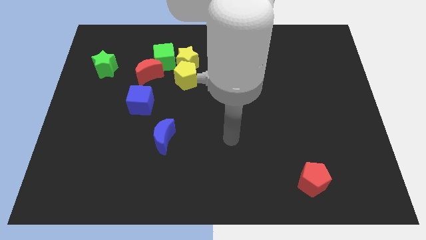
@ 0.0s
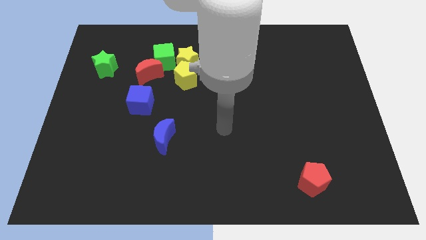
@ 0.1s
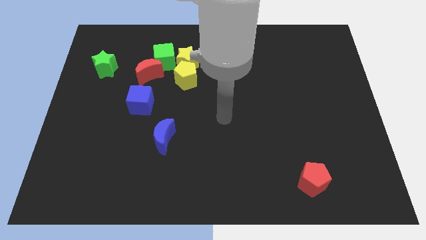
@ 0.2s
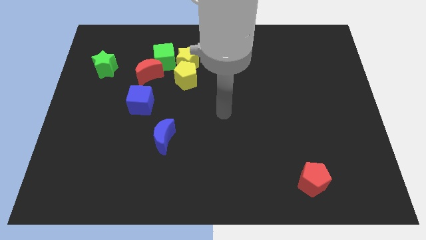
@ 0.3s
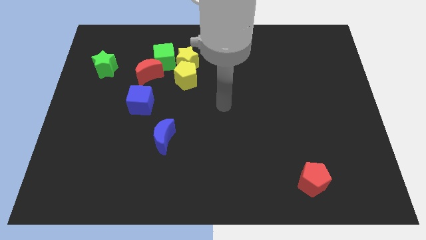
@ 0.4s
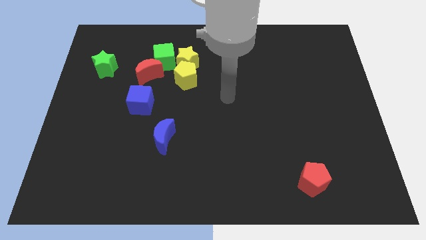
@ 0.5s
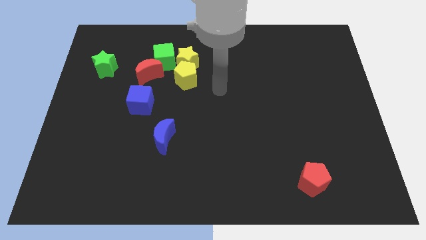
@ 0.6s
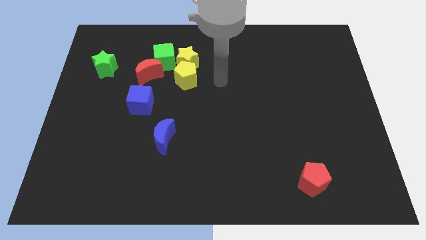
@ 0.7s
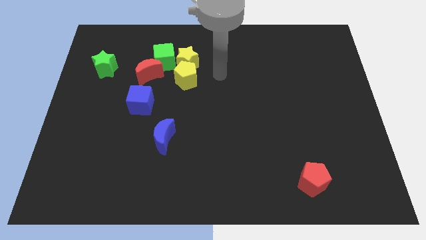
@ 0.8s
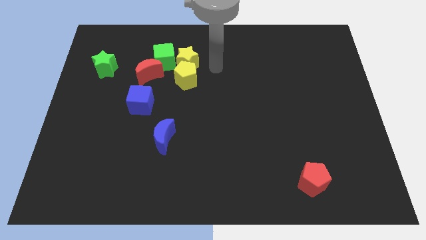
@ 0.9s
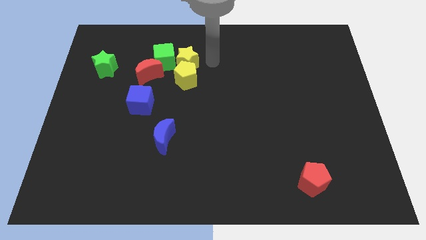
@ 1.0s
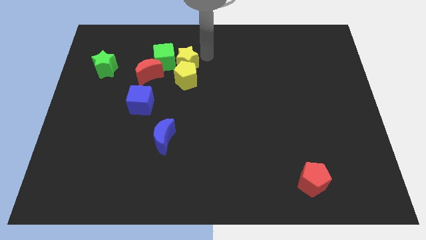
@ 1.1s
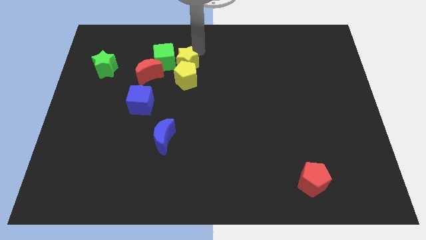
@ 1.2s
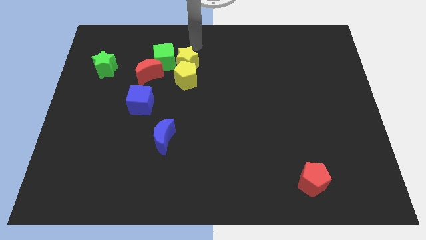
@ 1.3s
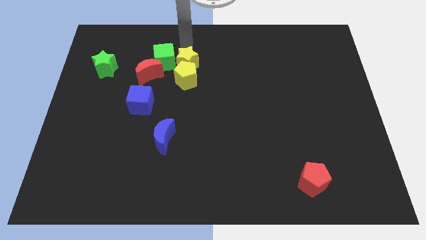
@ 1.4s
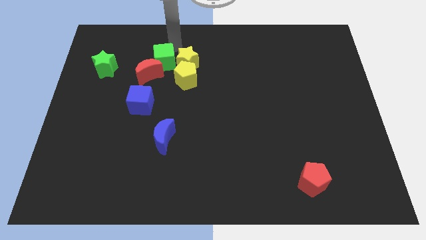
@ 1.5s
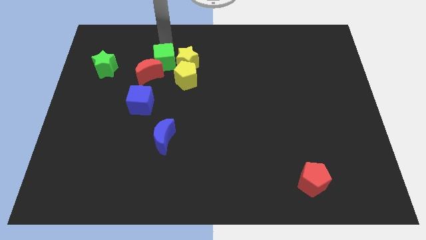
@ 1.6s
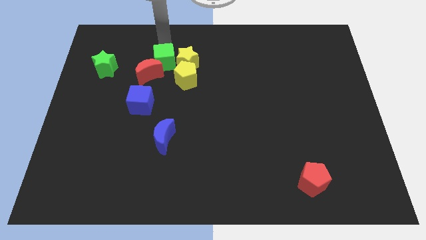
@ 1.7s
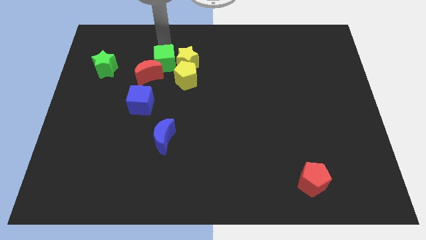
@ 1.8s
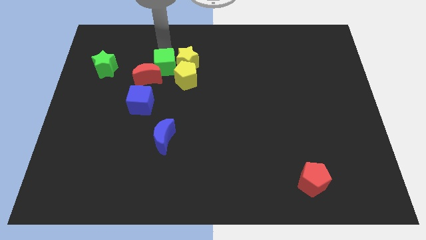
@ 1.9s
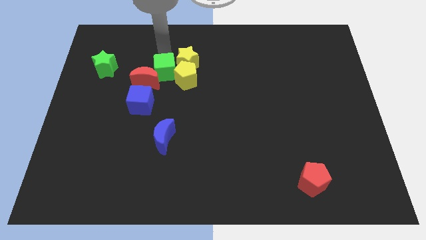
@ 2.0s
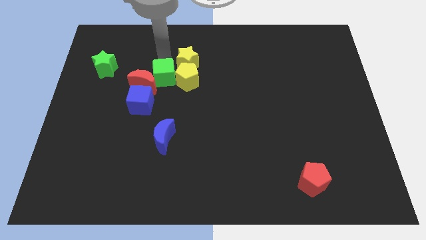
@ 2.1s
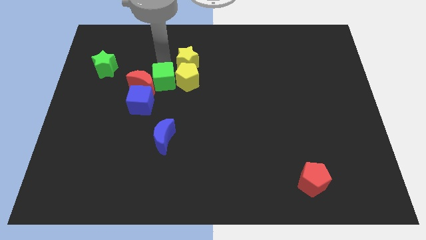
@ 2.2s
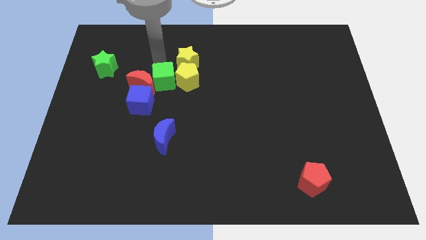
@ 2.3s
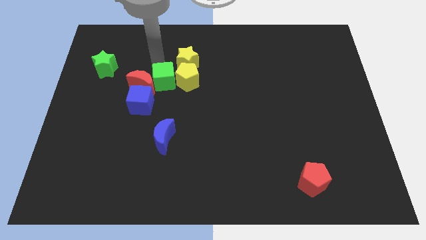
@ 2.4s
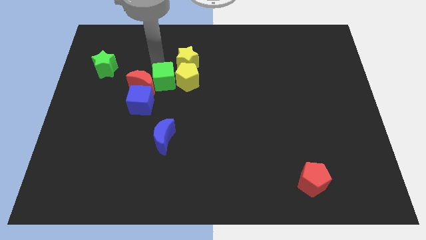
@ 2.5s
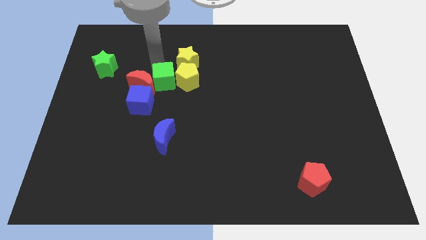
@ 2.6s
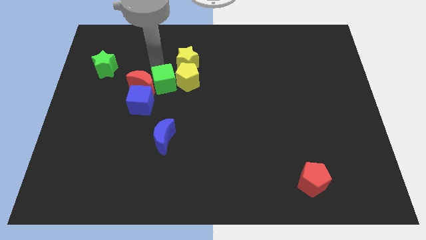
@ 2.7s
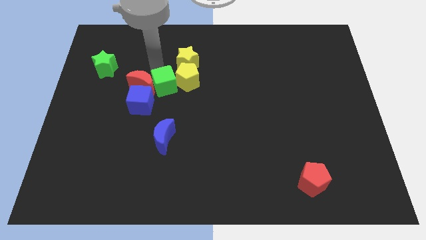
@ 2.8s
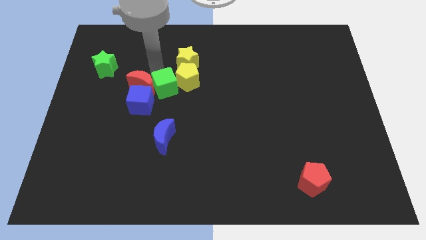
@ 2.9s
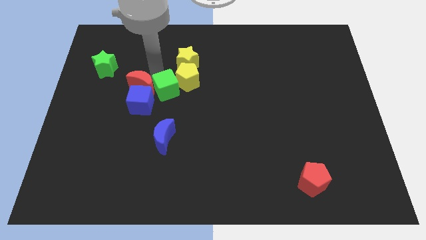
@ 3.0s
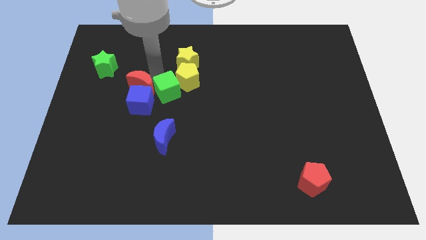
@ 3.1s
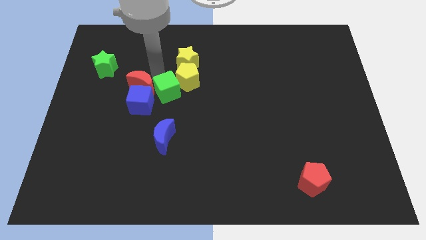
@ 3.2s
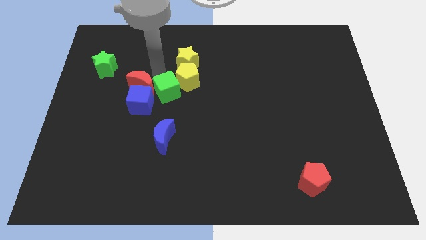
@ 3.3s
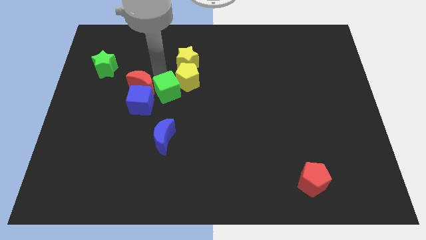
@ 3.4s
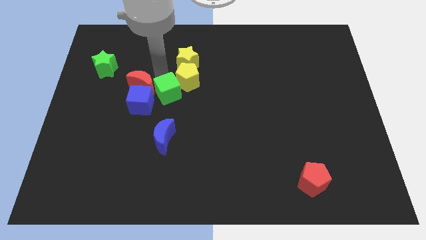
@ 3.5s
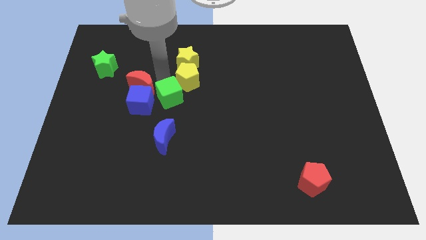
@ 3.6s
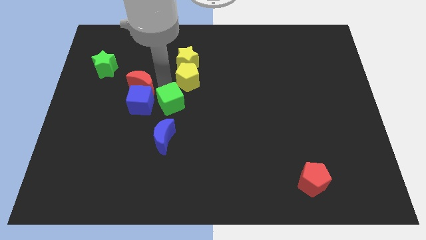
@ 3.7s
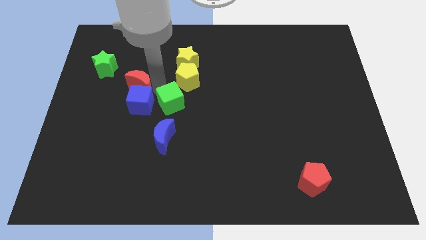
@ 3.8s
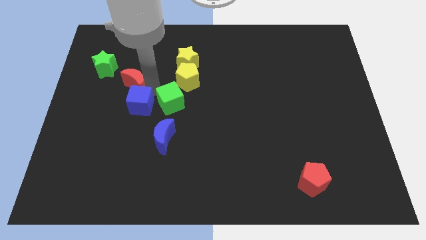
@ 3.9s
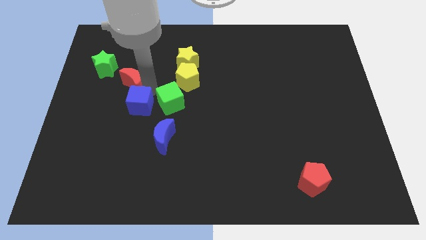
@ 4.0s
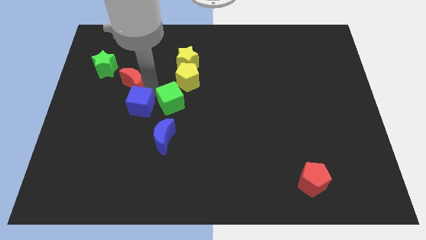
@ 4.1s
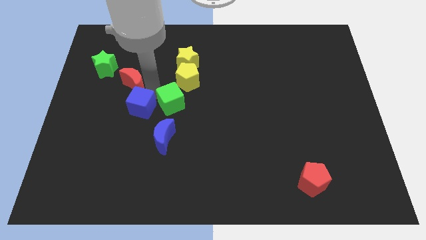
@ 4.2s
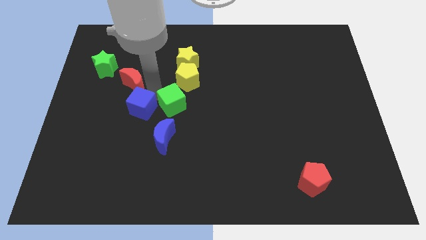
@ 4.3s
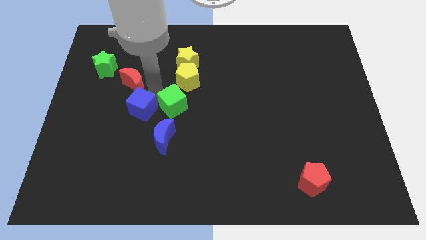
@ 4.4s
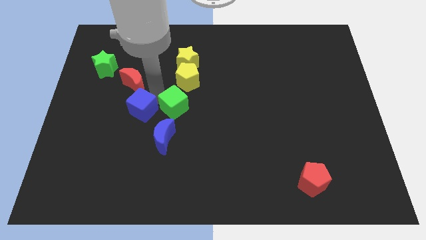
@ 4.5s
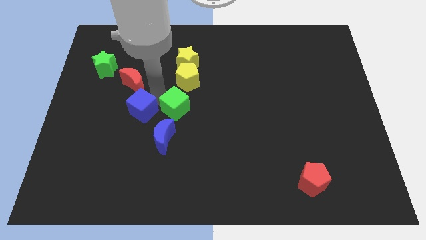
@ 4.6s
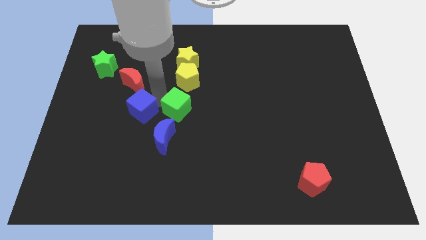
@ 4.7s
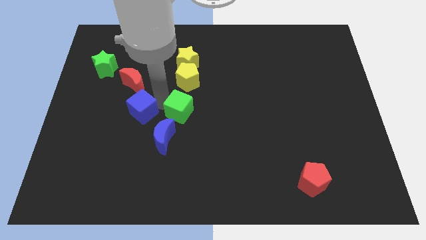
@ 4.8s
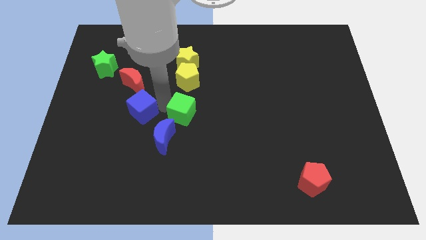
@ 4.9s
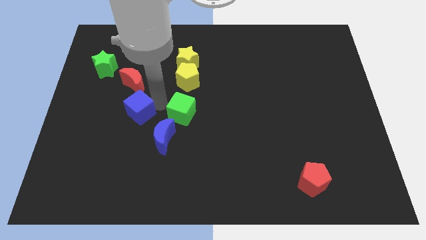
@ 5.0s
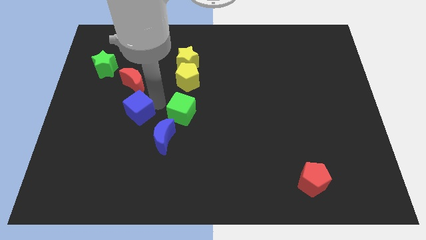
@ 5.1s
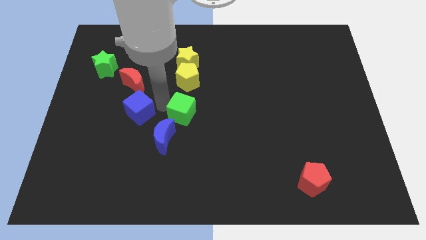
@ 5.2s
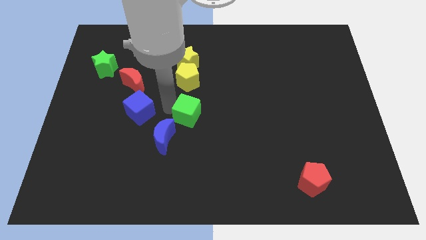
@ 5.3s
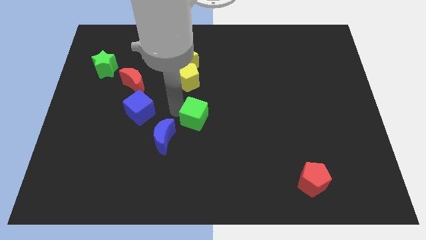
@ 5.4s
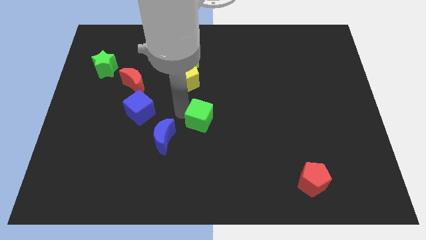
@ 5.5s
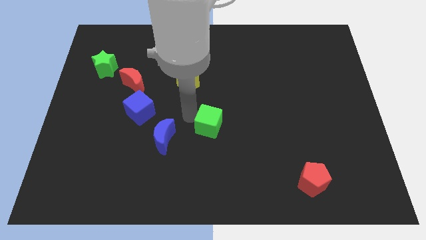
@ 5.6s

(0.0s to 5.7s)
push the green cube down and then to the right

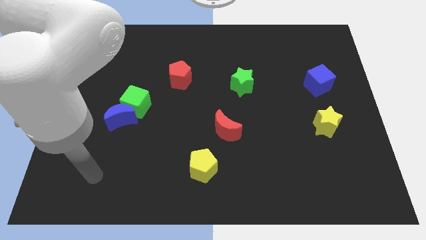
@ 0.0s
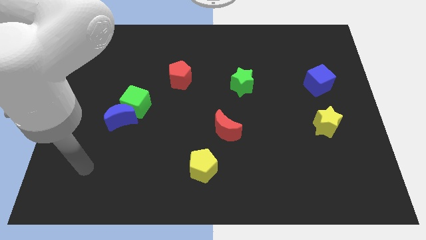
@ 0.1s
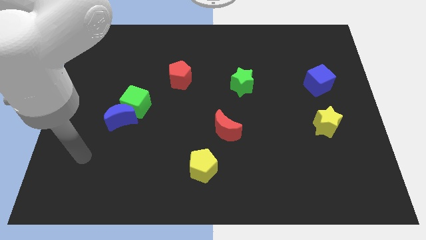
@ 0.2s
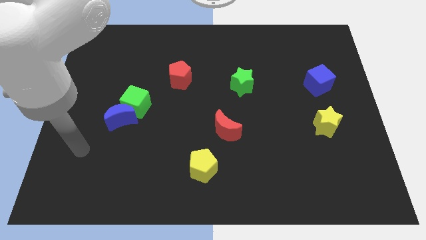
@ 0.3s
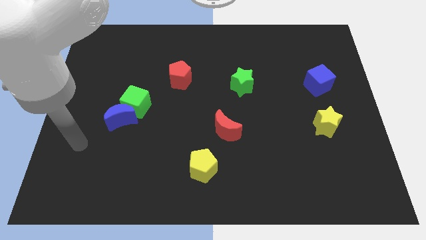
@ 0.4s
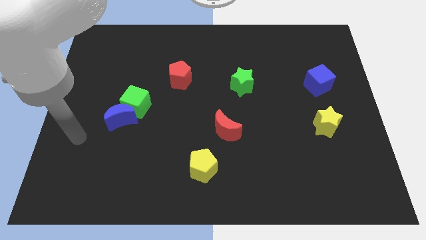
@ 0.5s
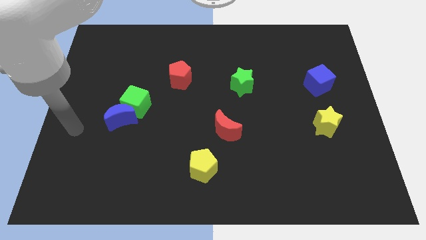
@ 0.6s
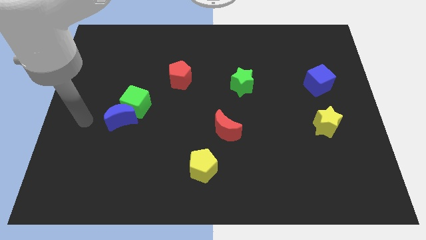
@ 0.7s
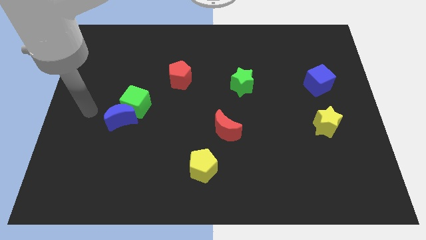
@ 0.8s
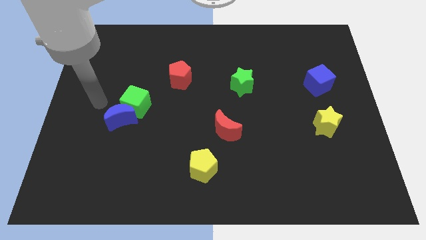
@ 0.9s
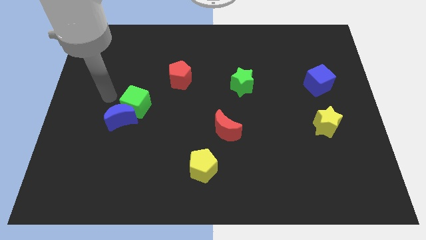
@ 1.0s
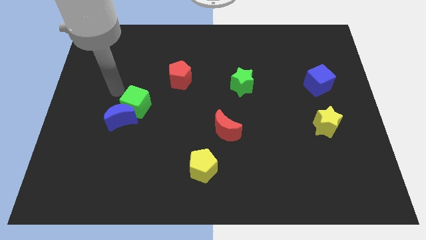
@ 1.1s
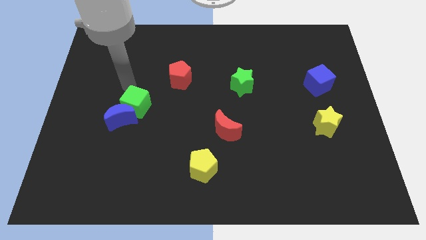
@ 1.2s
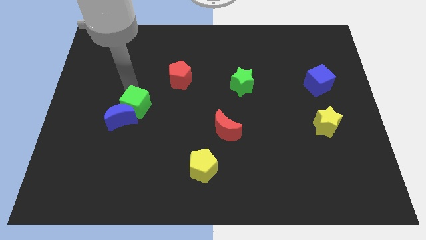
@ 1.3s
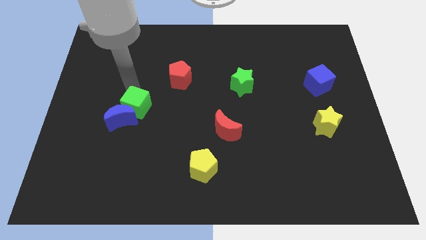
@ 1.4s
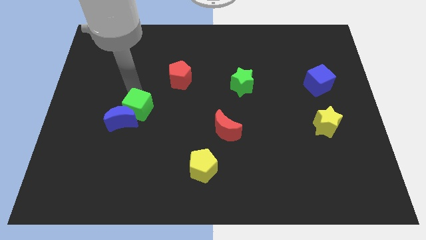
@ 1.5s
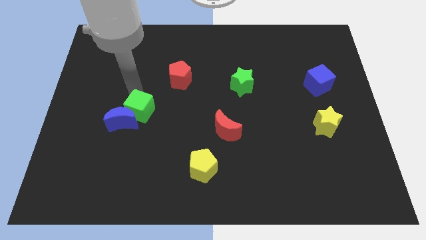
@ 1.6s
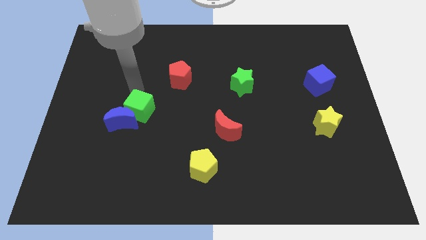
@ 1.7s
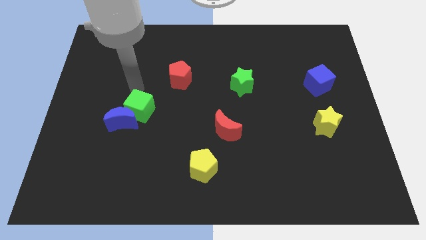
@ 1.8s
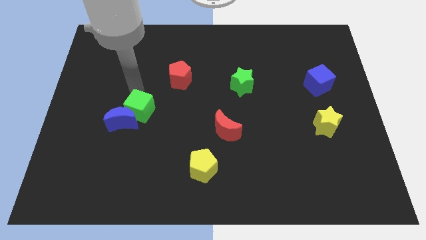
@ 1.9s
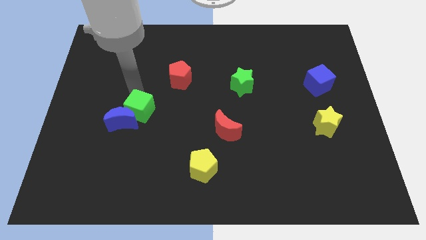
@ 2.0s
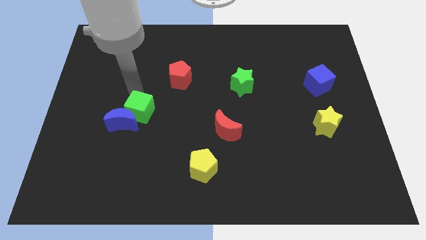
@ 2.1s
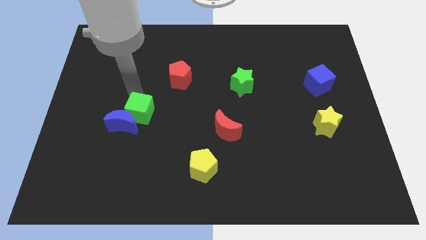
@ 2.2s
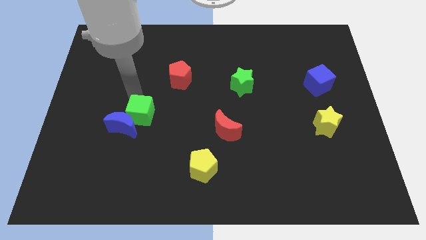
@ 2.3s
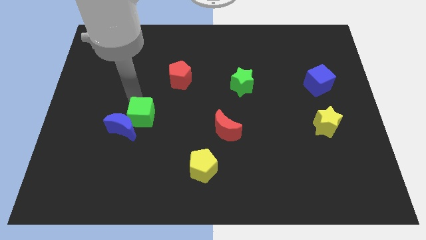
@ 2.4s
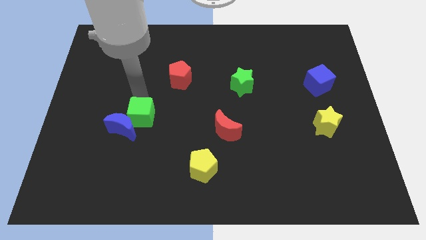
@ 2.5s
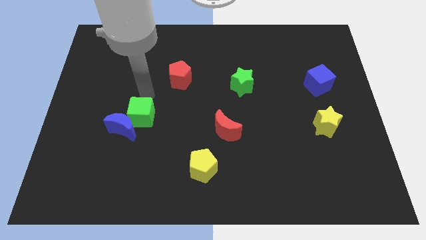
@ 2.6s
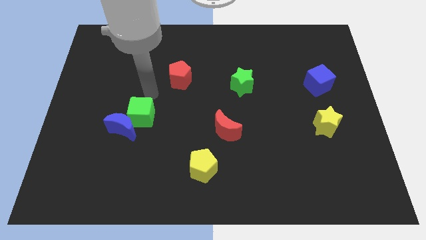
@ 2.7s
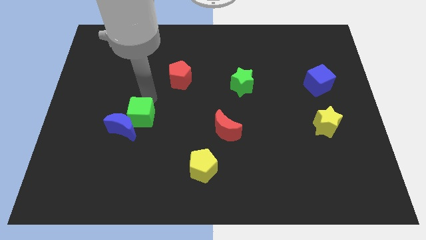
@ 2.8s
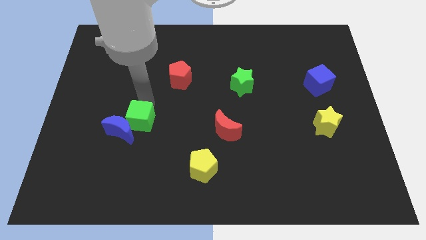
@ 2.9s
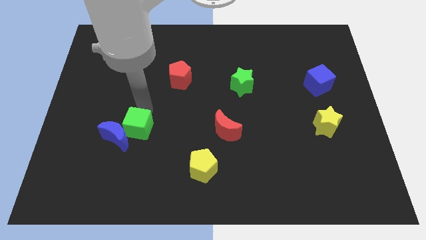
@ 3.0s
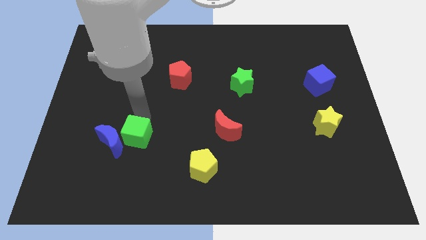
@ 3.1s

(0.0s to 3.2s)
move the green cube slightly downwards
